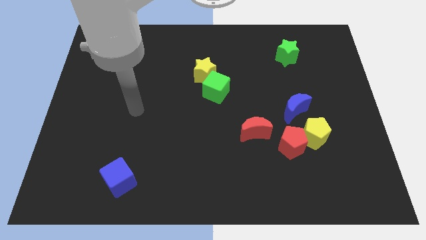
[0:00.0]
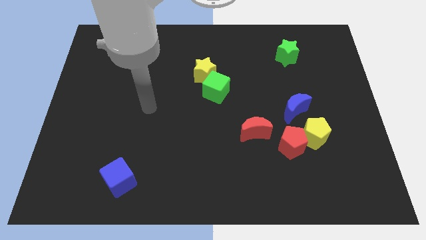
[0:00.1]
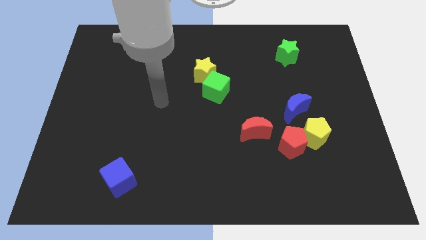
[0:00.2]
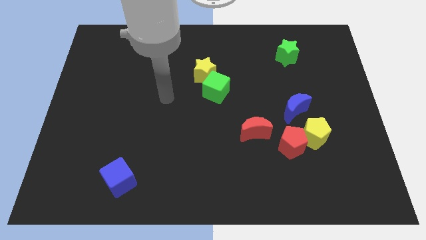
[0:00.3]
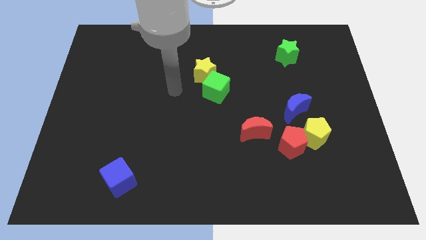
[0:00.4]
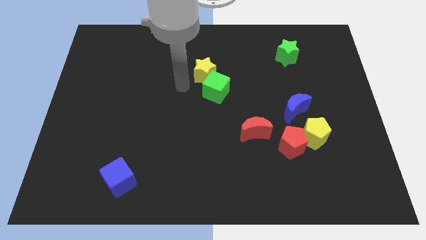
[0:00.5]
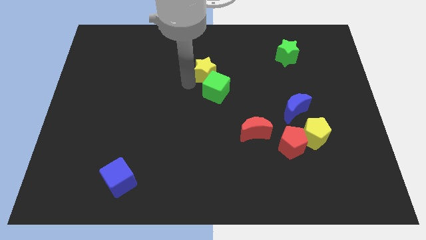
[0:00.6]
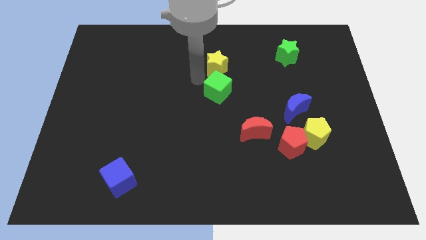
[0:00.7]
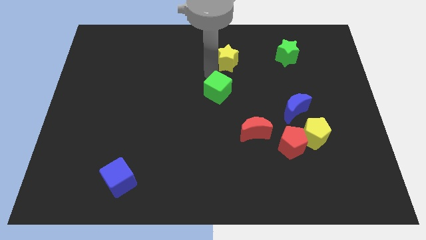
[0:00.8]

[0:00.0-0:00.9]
pull the green cube apart from the yellow star

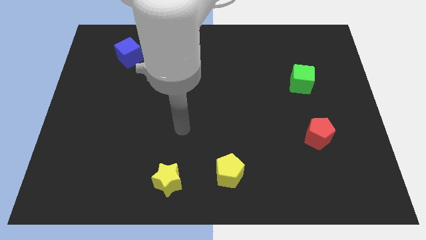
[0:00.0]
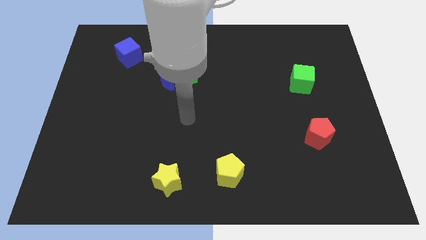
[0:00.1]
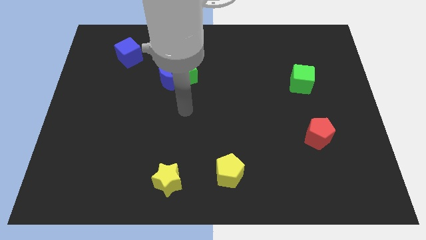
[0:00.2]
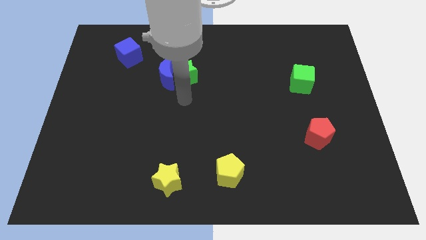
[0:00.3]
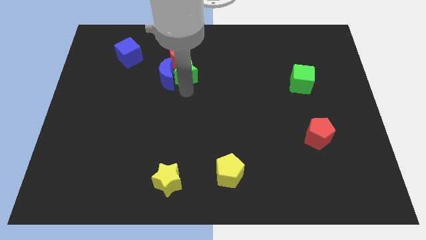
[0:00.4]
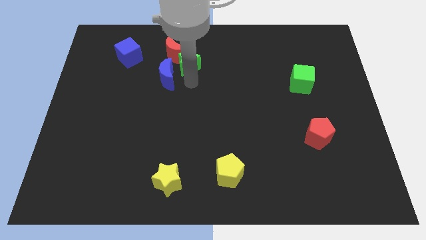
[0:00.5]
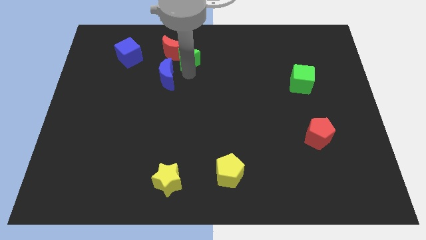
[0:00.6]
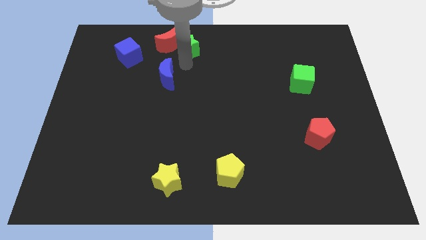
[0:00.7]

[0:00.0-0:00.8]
pull the blue moon apart from the green star and red moon

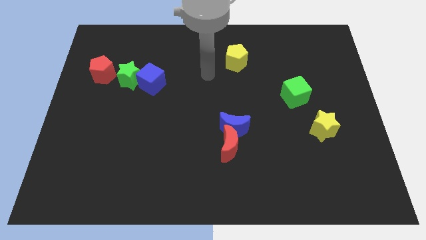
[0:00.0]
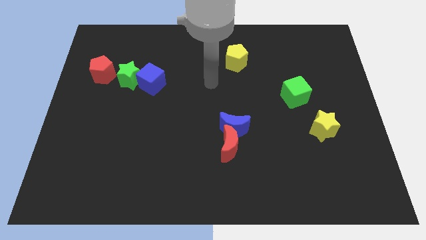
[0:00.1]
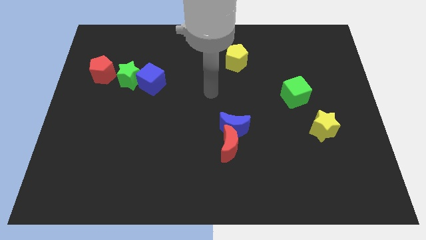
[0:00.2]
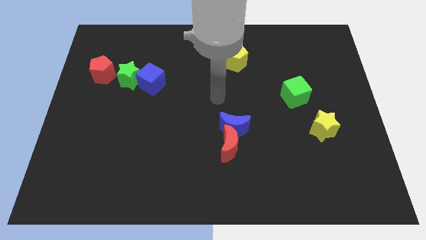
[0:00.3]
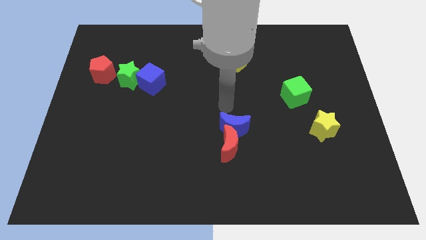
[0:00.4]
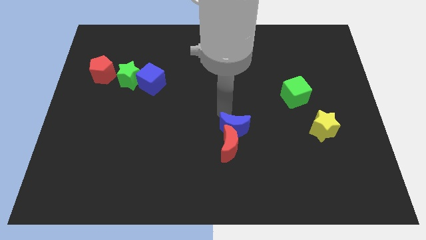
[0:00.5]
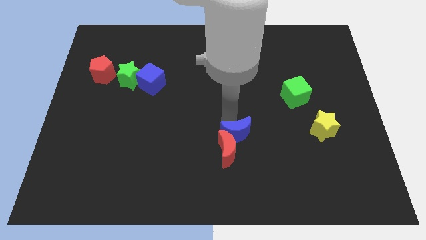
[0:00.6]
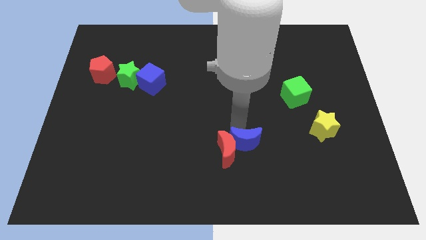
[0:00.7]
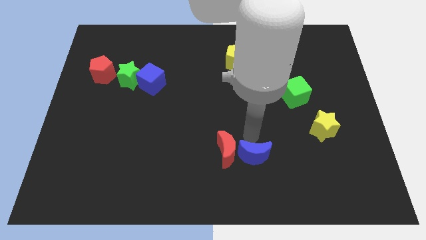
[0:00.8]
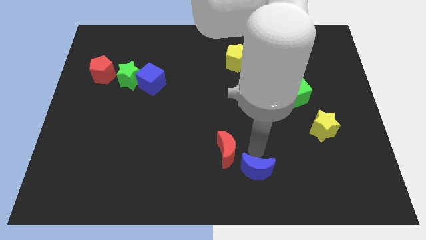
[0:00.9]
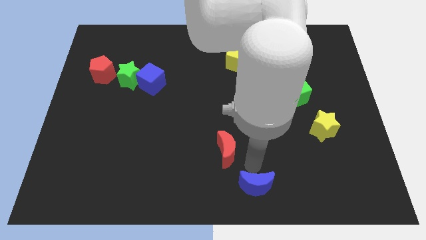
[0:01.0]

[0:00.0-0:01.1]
pull the red moon apart from the blue moon

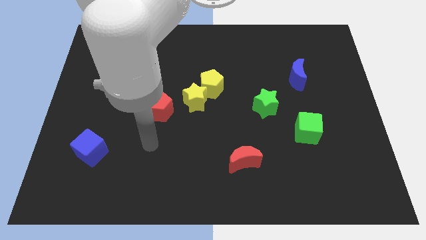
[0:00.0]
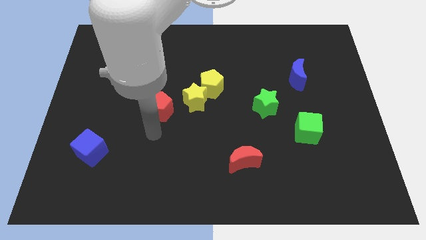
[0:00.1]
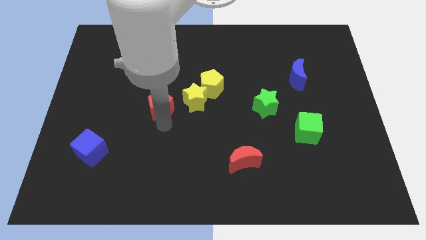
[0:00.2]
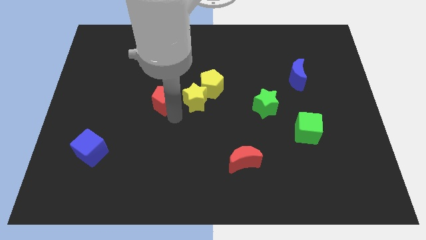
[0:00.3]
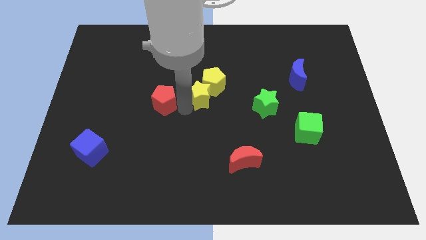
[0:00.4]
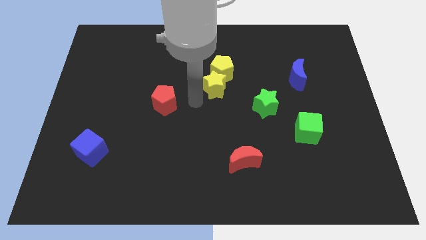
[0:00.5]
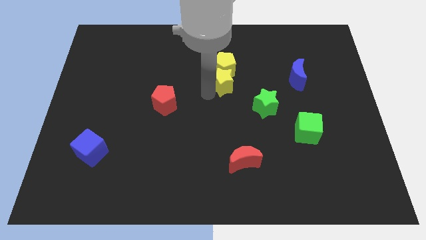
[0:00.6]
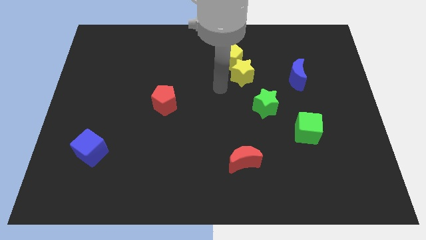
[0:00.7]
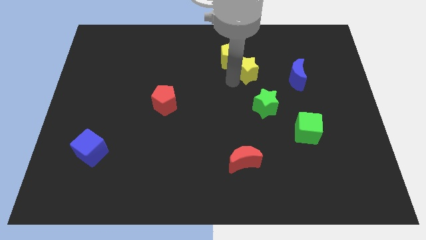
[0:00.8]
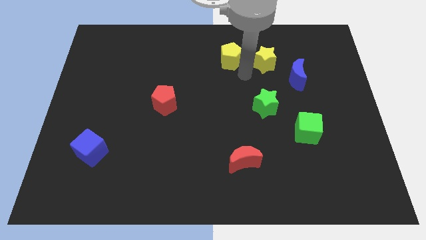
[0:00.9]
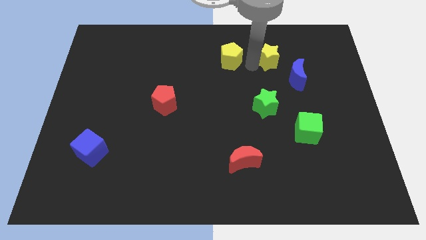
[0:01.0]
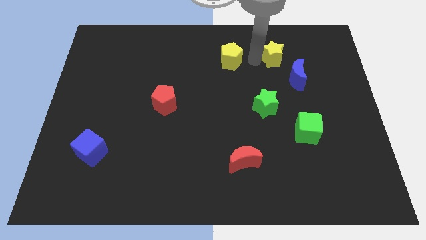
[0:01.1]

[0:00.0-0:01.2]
separate the yellow pentagon from the yellow star

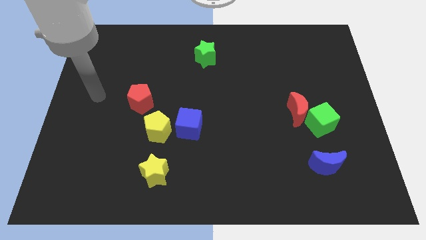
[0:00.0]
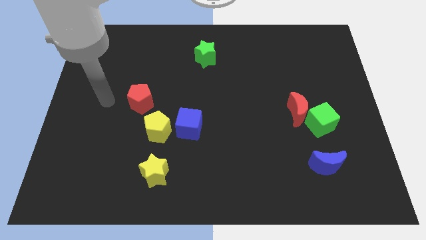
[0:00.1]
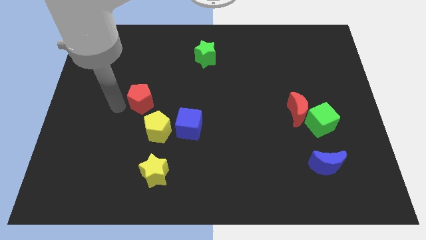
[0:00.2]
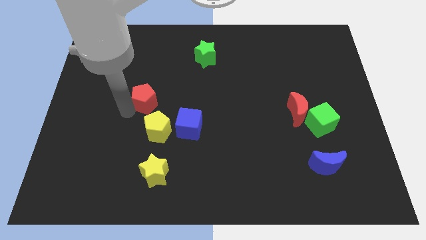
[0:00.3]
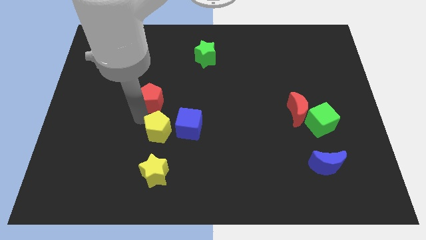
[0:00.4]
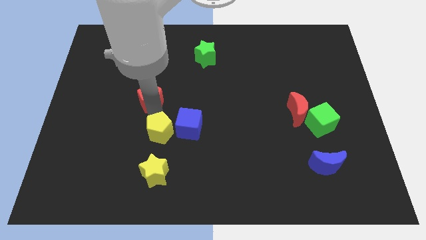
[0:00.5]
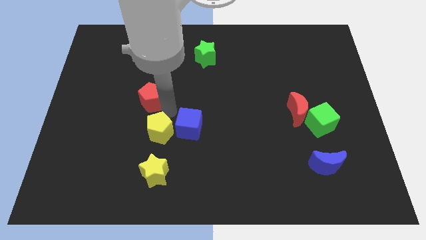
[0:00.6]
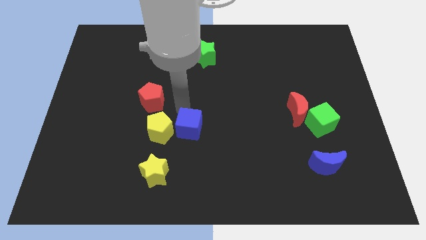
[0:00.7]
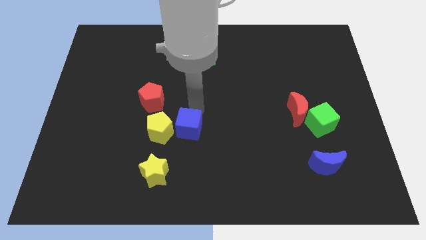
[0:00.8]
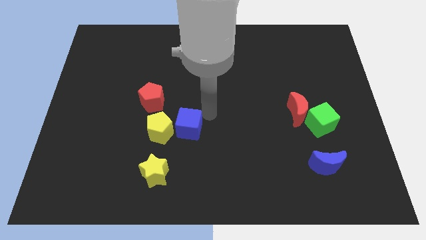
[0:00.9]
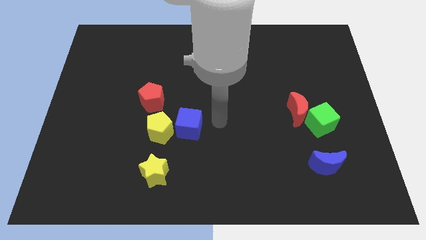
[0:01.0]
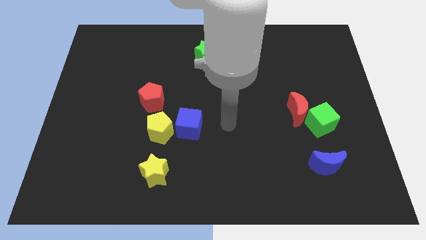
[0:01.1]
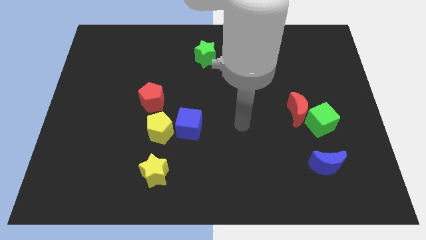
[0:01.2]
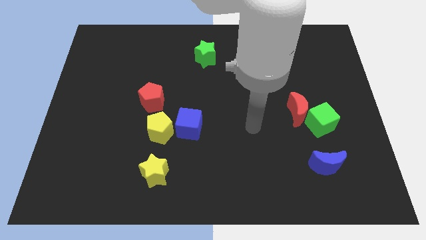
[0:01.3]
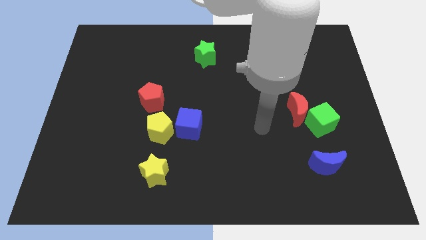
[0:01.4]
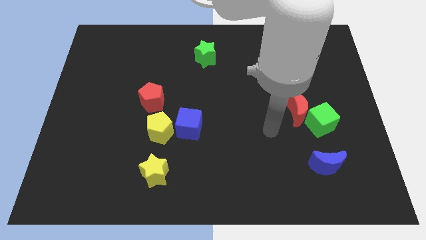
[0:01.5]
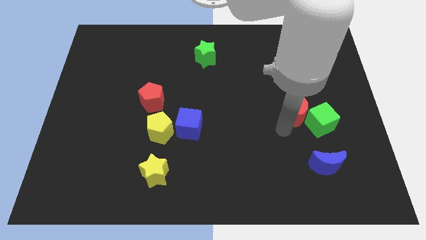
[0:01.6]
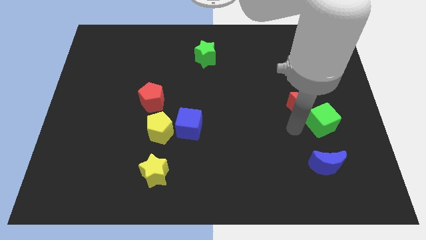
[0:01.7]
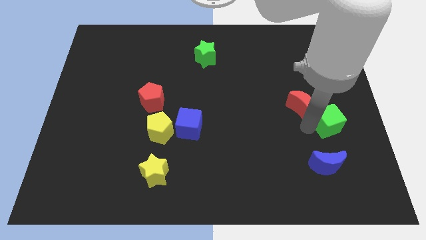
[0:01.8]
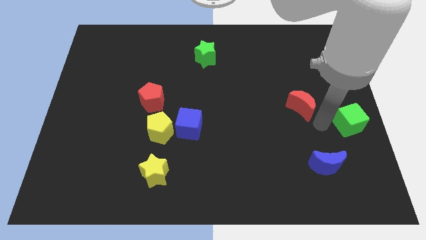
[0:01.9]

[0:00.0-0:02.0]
pull the red moon apart from the green cube

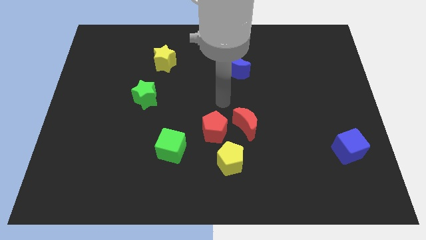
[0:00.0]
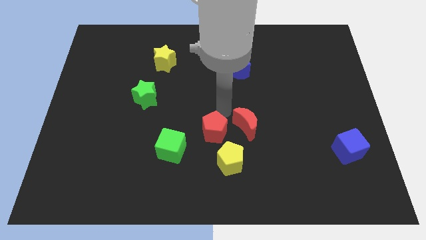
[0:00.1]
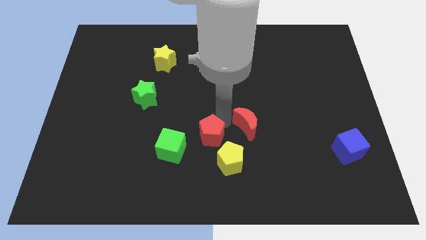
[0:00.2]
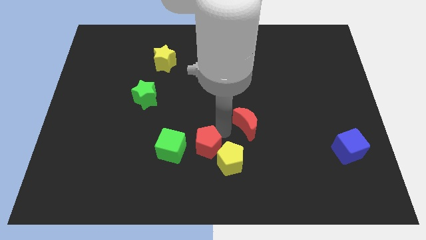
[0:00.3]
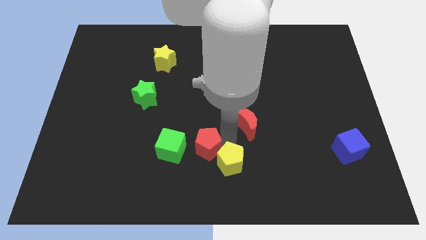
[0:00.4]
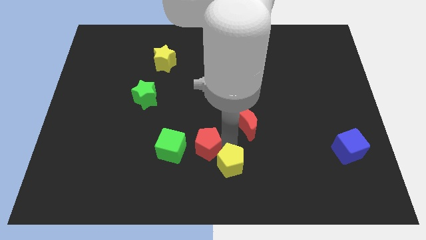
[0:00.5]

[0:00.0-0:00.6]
pull the red moon apart from the red pentagon and yellow pentagon

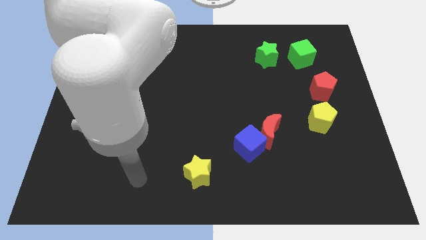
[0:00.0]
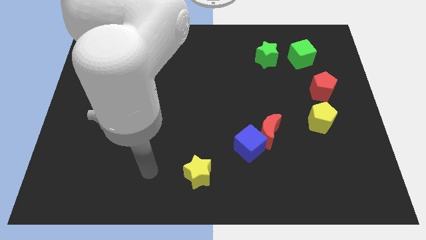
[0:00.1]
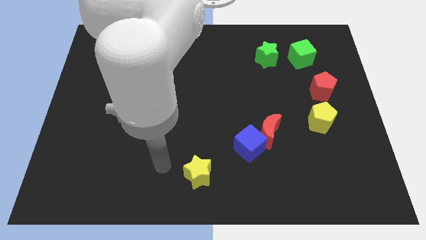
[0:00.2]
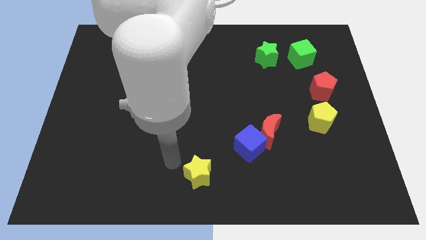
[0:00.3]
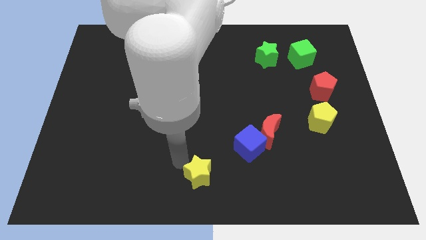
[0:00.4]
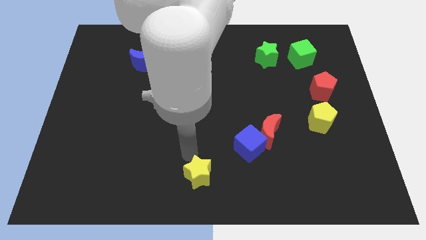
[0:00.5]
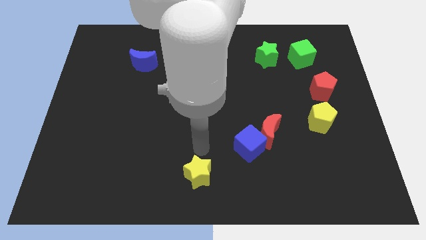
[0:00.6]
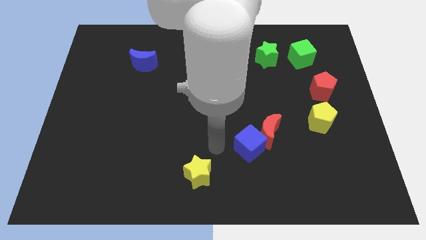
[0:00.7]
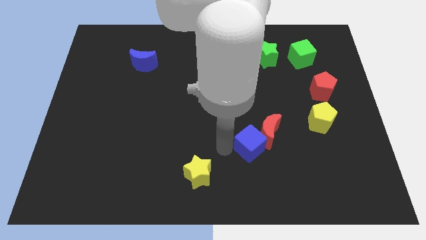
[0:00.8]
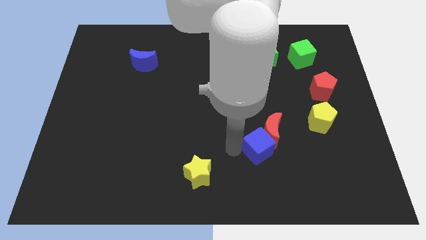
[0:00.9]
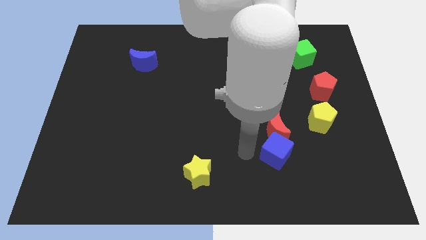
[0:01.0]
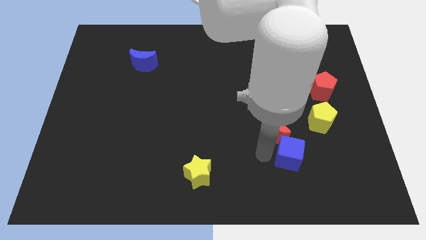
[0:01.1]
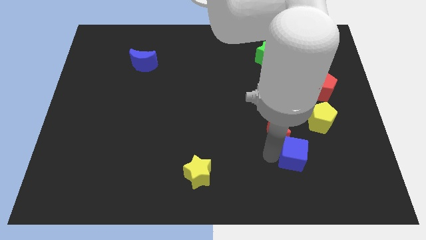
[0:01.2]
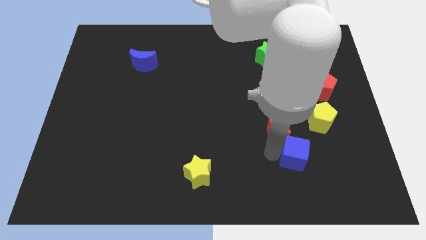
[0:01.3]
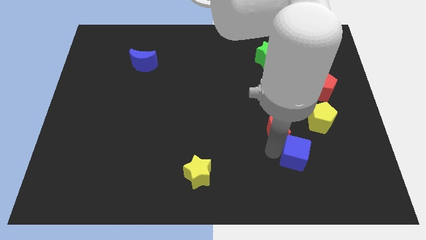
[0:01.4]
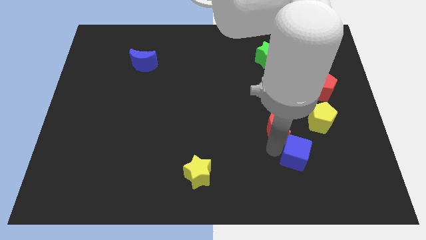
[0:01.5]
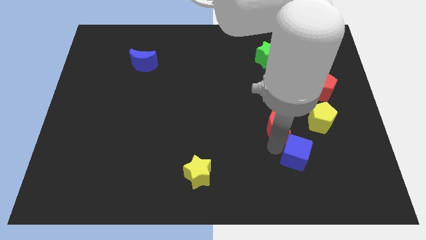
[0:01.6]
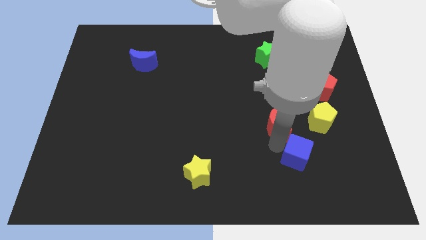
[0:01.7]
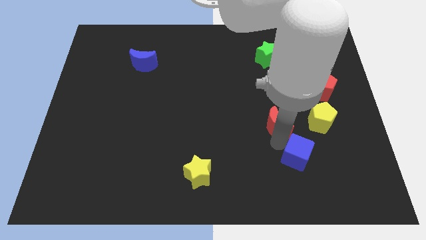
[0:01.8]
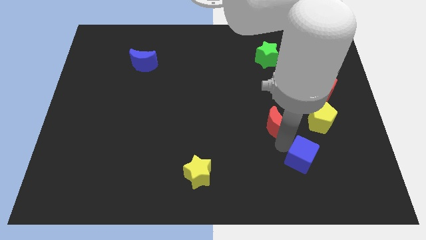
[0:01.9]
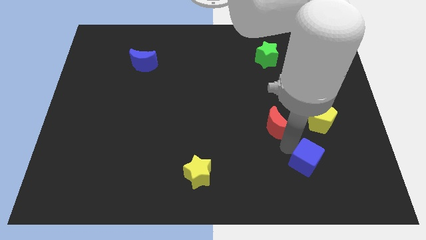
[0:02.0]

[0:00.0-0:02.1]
move the red moon away from the blue cube

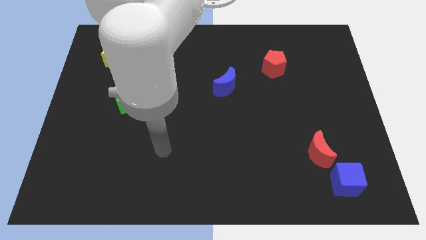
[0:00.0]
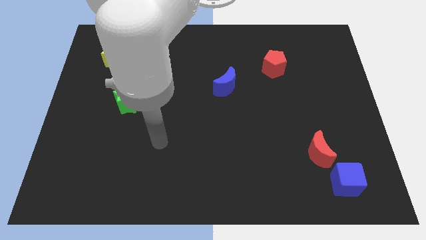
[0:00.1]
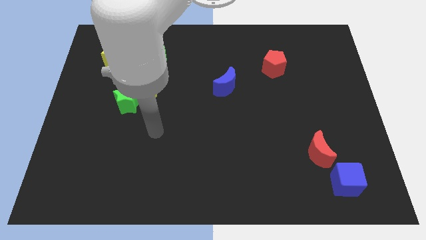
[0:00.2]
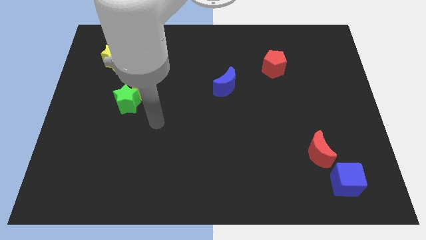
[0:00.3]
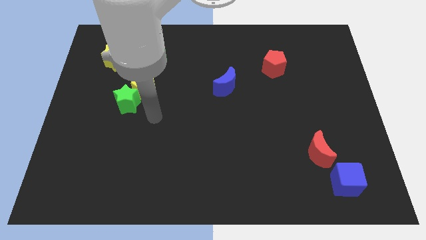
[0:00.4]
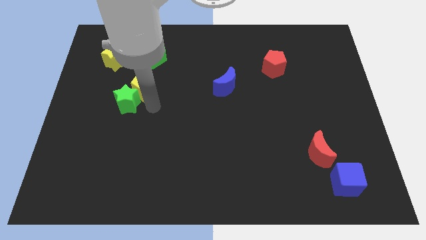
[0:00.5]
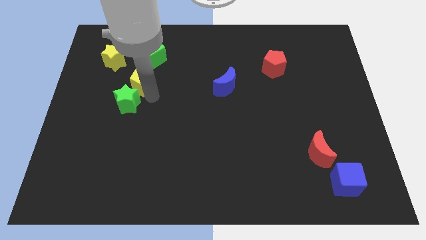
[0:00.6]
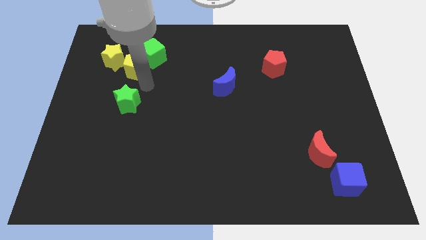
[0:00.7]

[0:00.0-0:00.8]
pull the green star apart from the yellow pentagon
